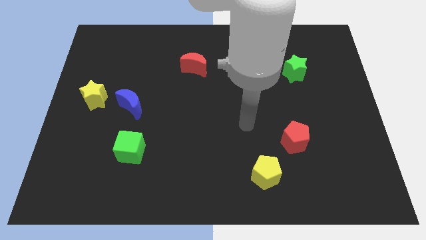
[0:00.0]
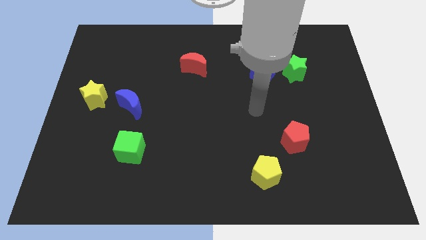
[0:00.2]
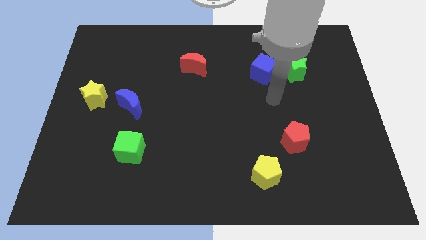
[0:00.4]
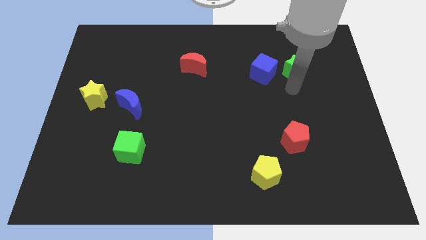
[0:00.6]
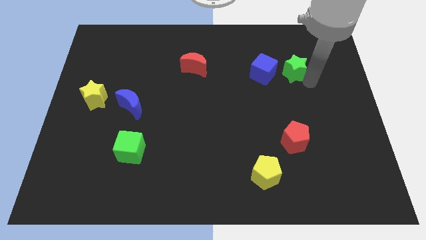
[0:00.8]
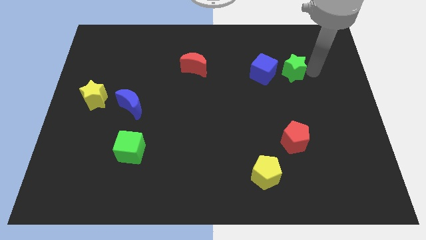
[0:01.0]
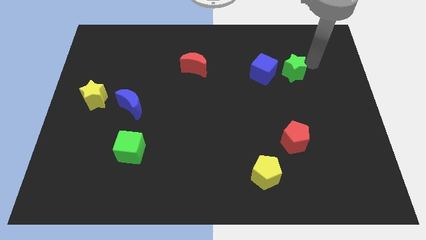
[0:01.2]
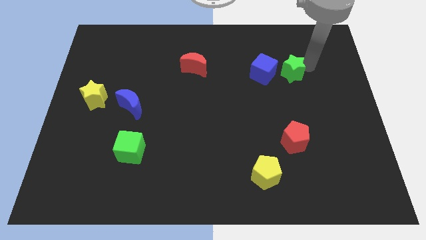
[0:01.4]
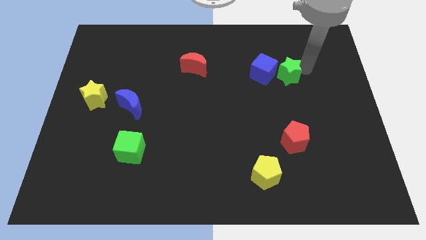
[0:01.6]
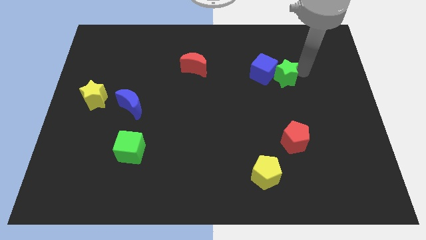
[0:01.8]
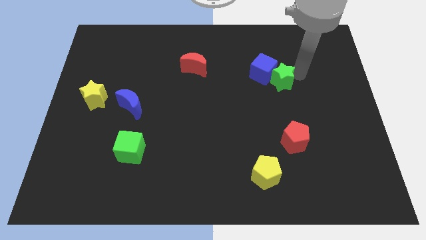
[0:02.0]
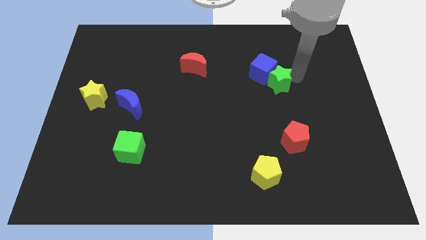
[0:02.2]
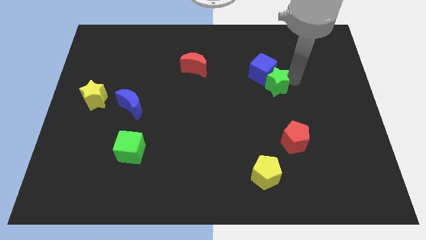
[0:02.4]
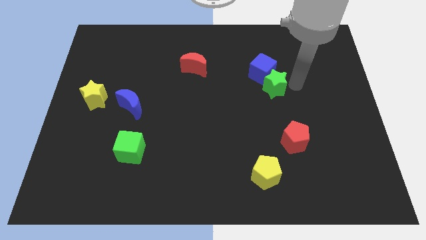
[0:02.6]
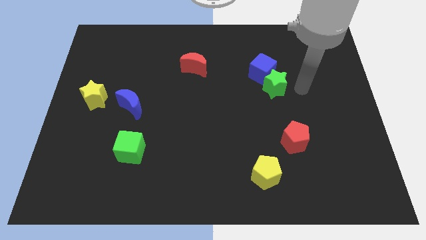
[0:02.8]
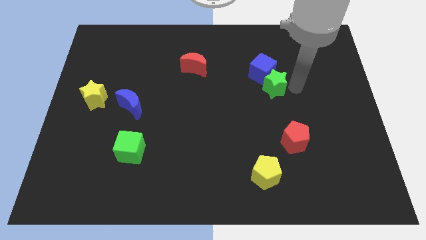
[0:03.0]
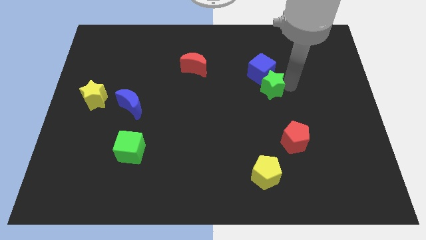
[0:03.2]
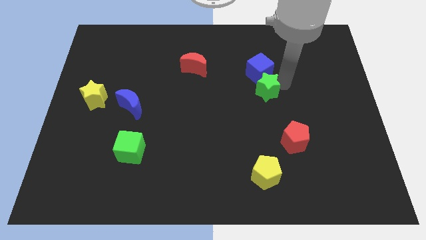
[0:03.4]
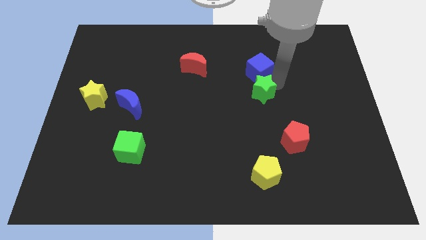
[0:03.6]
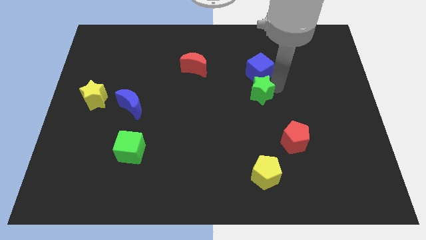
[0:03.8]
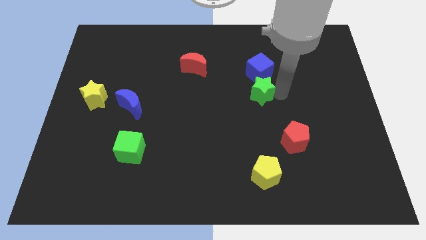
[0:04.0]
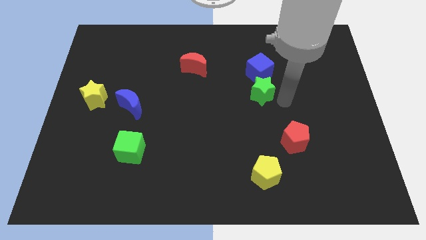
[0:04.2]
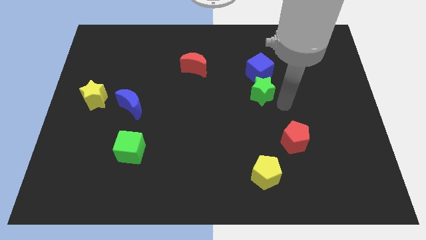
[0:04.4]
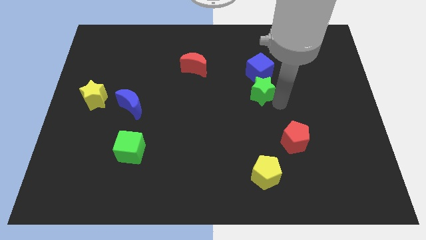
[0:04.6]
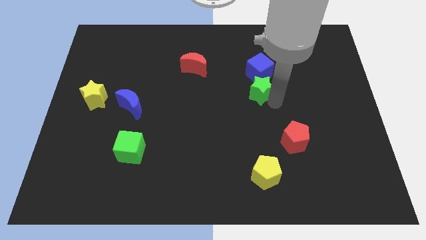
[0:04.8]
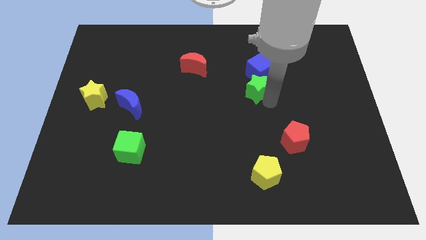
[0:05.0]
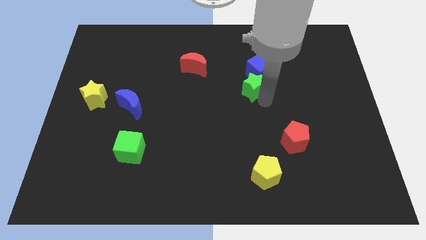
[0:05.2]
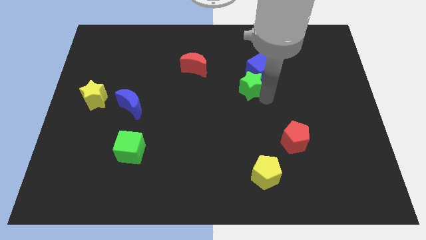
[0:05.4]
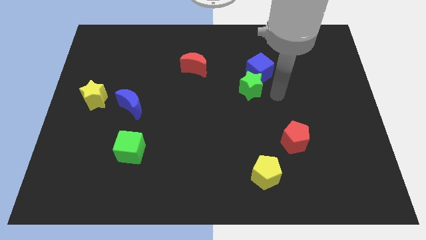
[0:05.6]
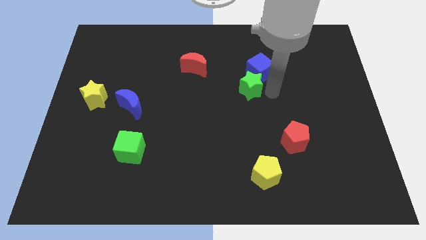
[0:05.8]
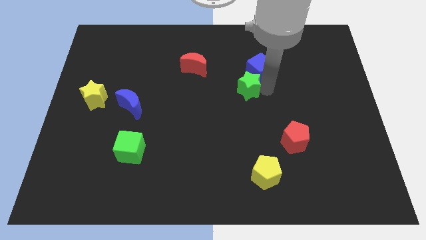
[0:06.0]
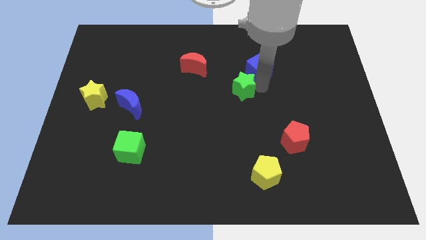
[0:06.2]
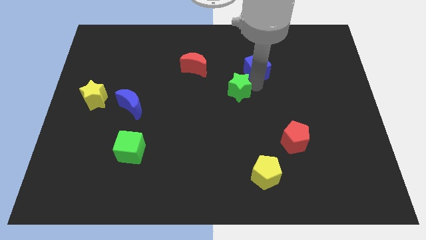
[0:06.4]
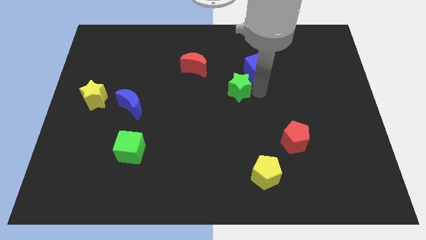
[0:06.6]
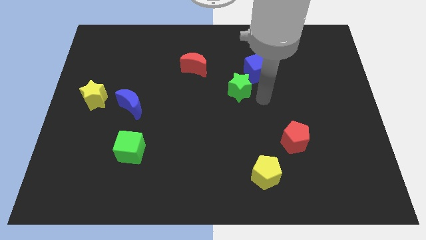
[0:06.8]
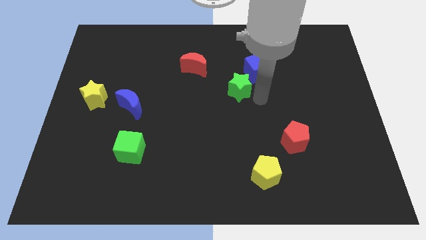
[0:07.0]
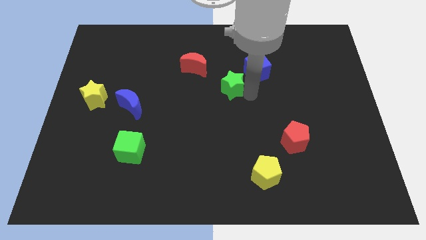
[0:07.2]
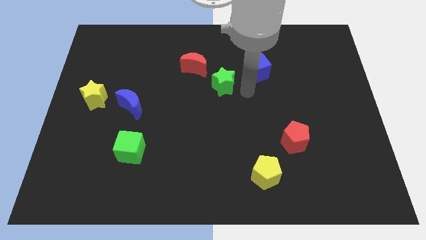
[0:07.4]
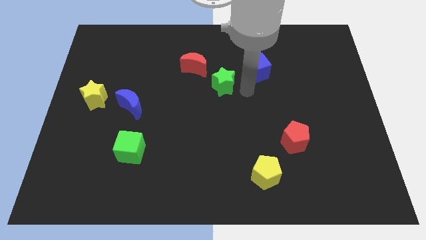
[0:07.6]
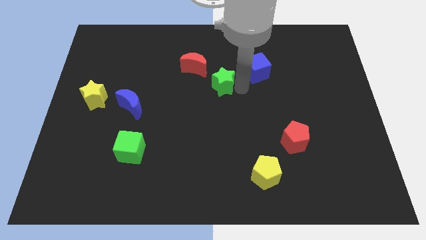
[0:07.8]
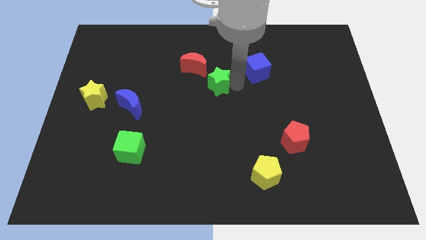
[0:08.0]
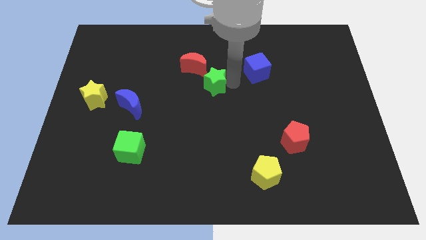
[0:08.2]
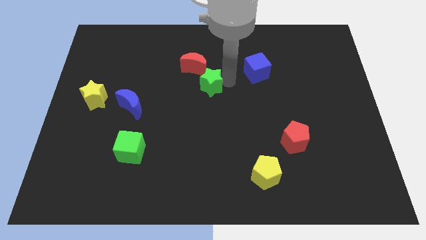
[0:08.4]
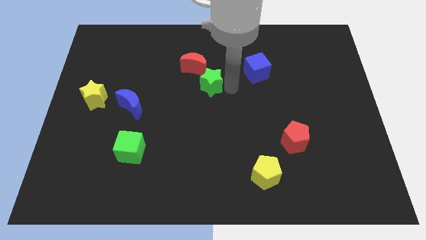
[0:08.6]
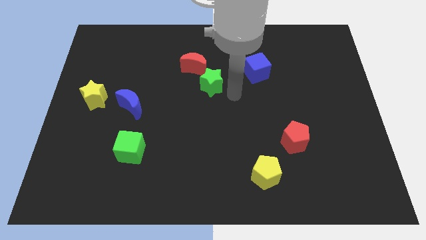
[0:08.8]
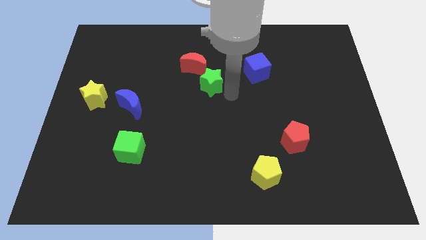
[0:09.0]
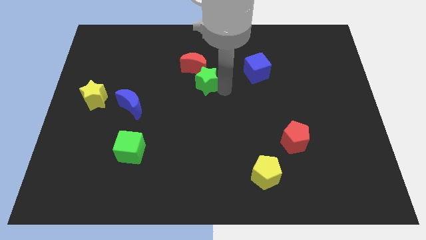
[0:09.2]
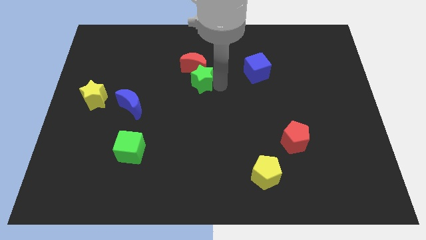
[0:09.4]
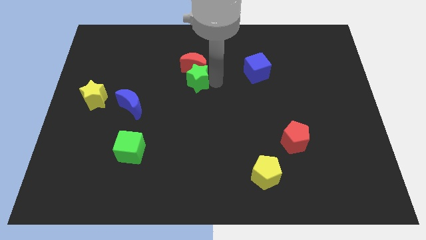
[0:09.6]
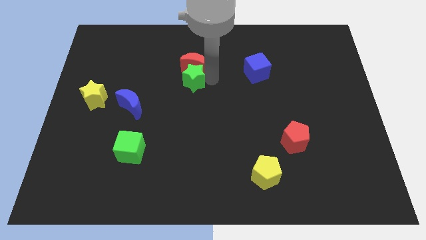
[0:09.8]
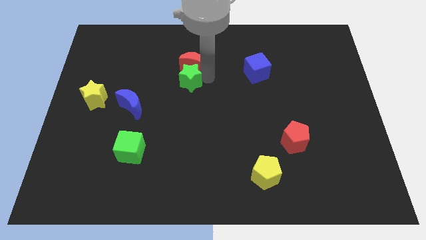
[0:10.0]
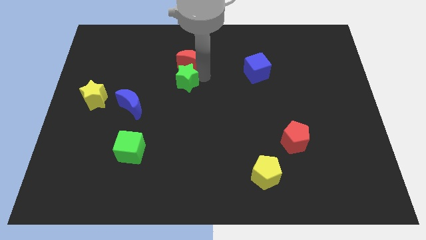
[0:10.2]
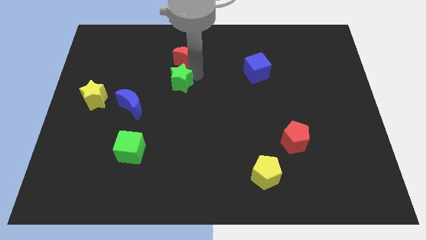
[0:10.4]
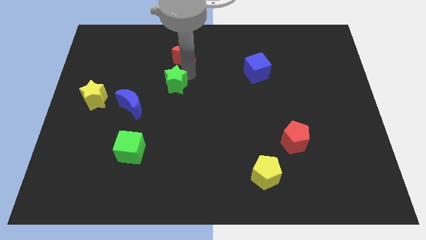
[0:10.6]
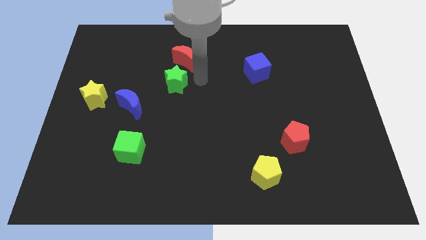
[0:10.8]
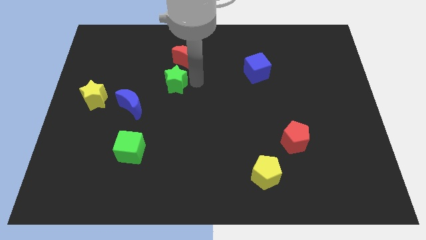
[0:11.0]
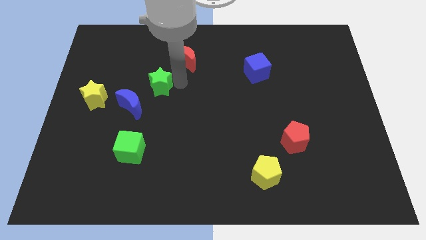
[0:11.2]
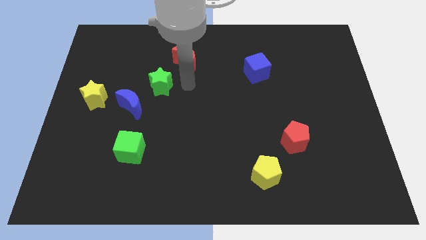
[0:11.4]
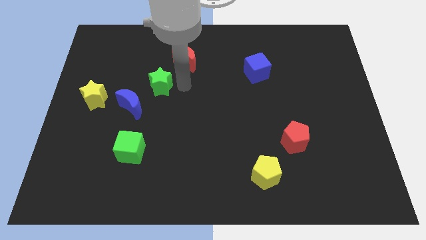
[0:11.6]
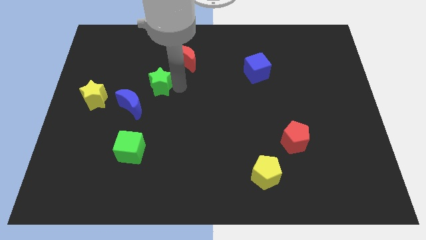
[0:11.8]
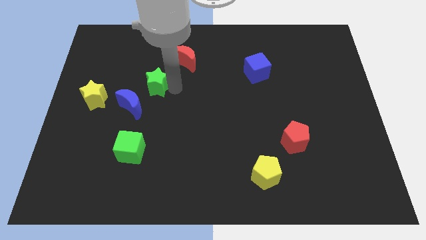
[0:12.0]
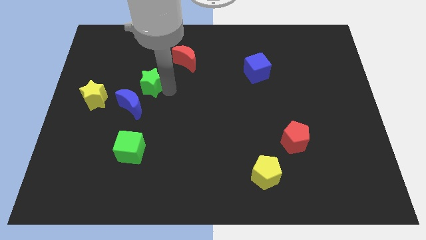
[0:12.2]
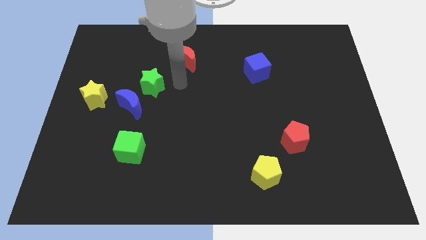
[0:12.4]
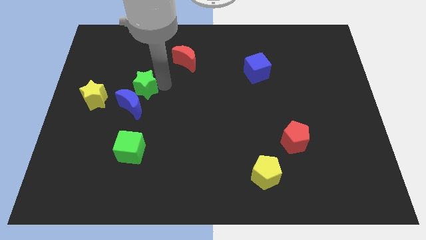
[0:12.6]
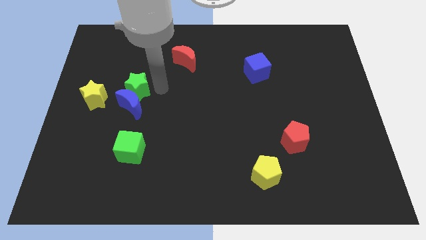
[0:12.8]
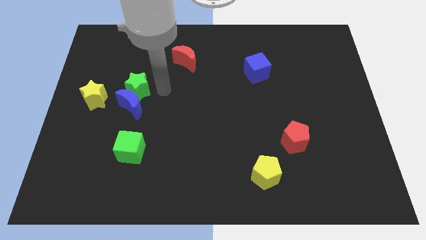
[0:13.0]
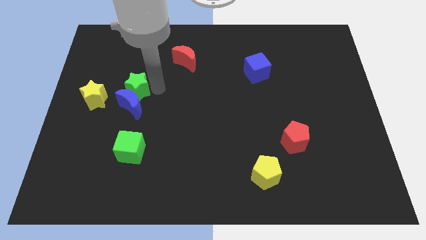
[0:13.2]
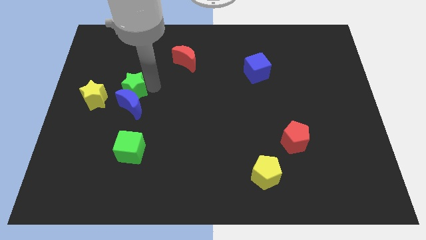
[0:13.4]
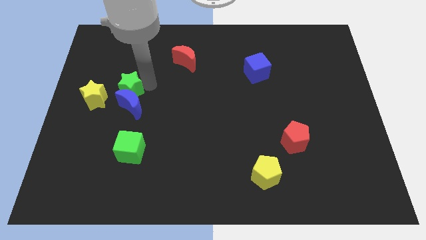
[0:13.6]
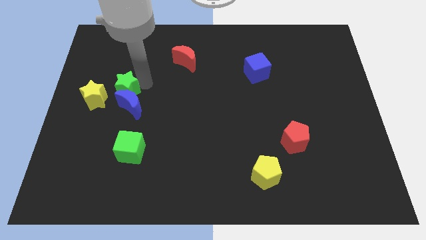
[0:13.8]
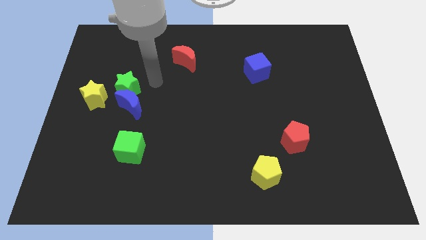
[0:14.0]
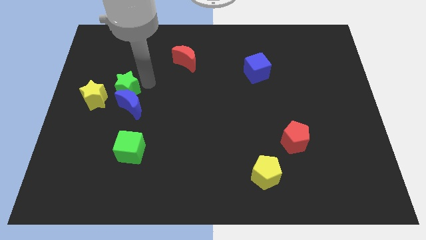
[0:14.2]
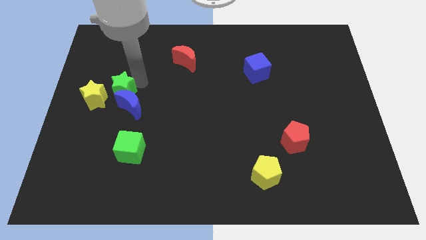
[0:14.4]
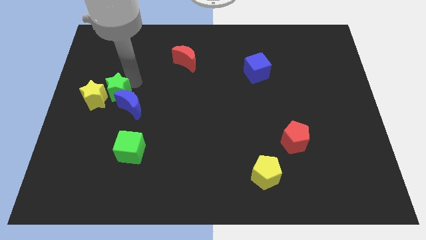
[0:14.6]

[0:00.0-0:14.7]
push the green star next to the yellow star
